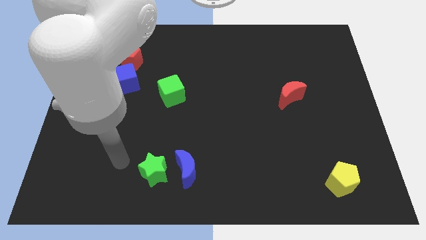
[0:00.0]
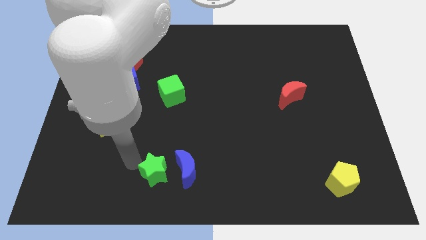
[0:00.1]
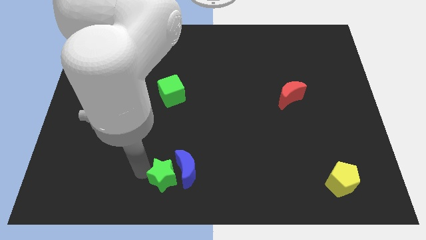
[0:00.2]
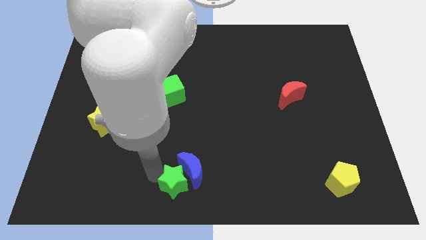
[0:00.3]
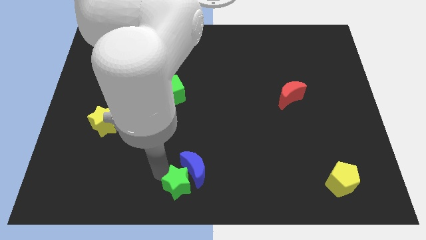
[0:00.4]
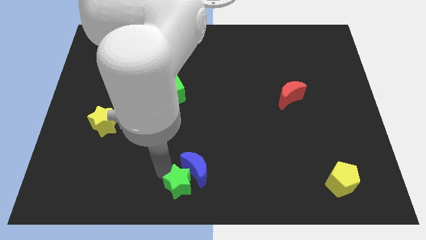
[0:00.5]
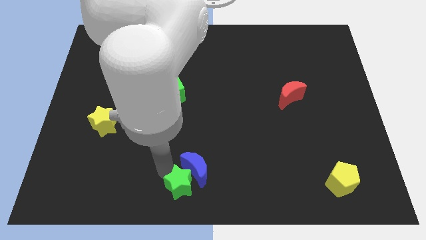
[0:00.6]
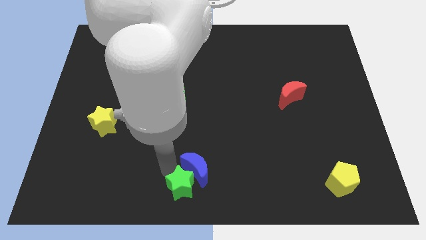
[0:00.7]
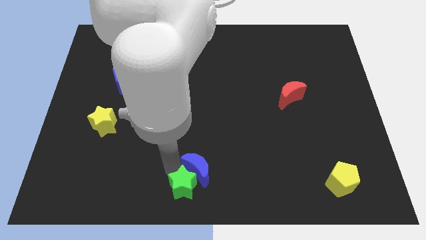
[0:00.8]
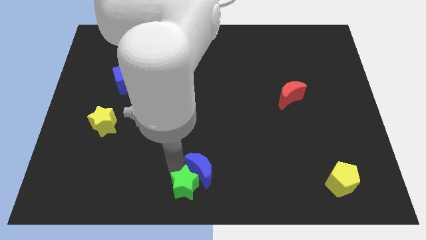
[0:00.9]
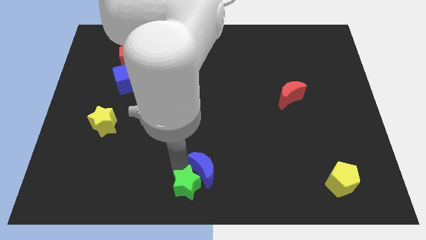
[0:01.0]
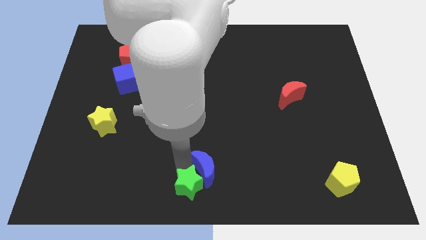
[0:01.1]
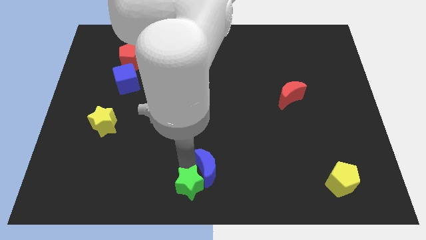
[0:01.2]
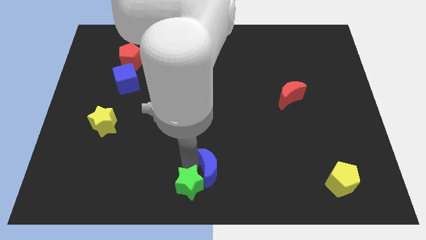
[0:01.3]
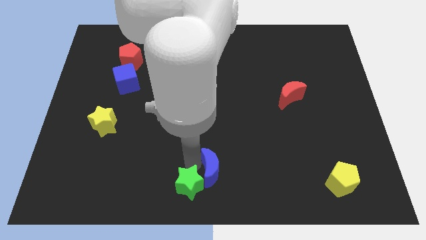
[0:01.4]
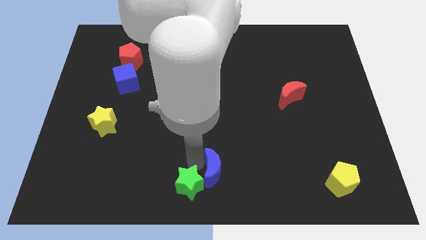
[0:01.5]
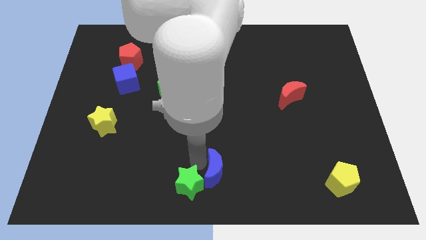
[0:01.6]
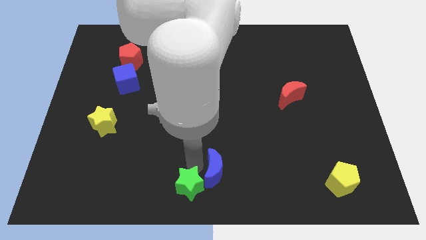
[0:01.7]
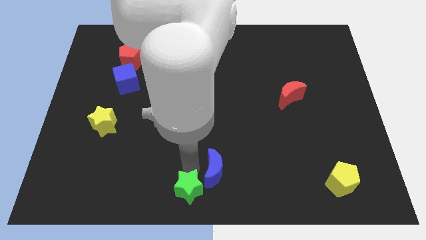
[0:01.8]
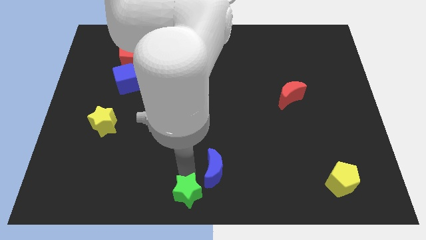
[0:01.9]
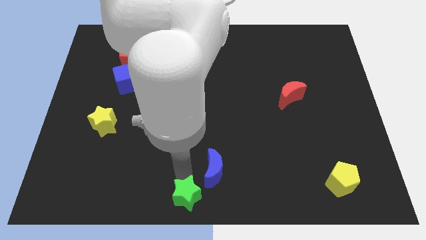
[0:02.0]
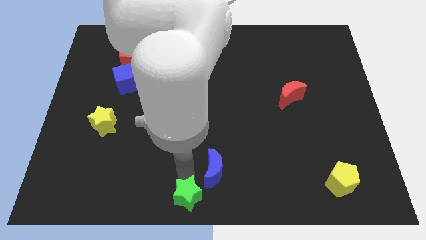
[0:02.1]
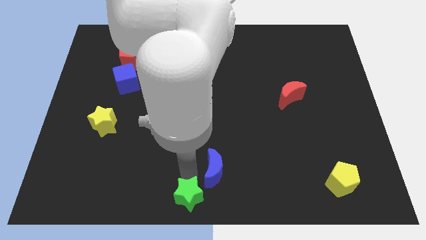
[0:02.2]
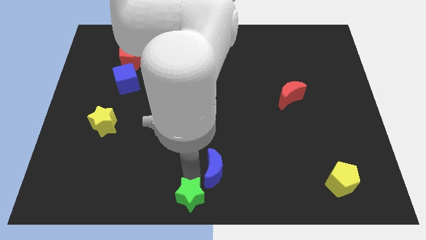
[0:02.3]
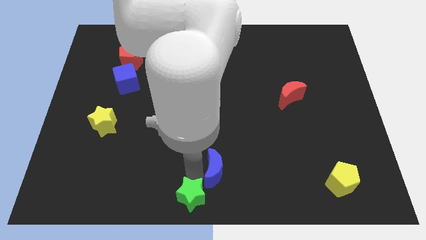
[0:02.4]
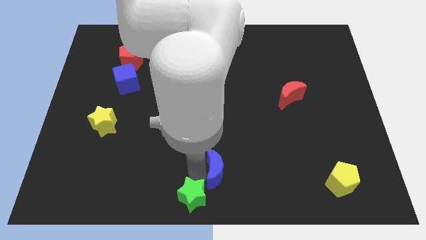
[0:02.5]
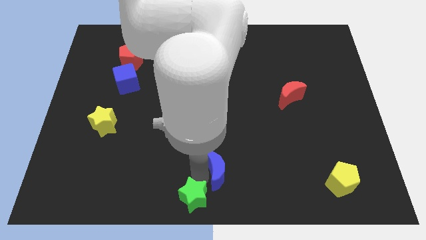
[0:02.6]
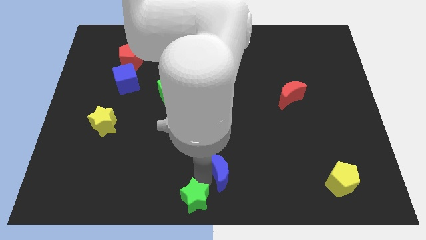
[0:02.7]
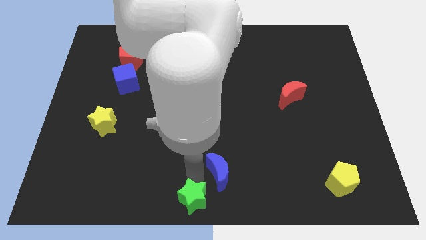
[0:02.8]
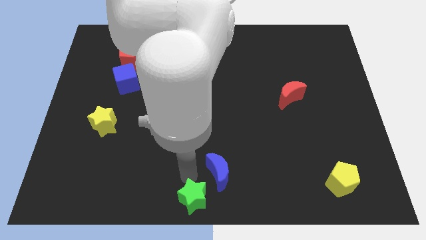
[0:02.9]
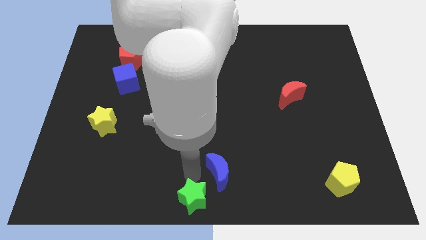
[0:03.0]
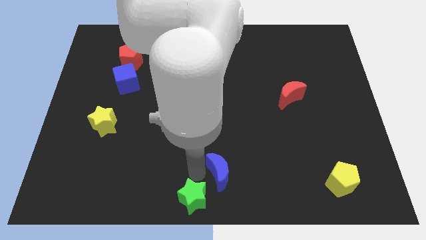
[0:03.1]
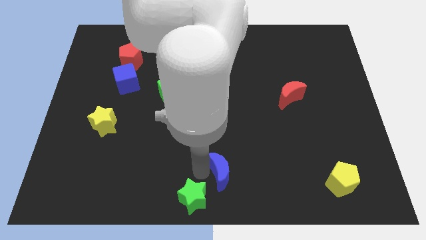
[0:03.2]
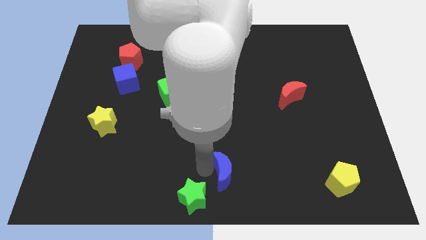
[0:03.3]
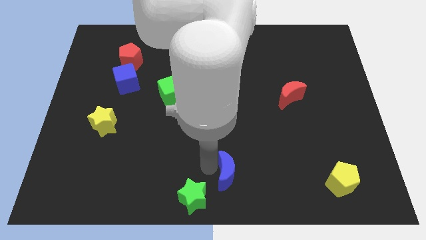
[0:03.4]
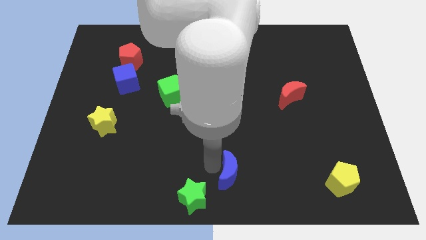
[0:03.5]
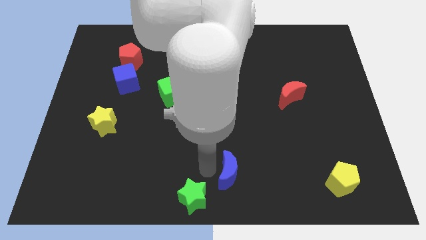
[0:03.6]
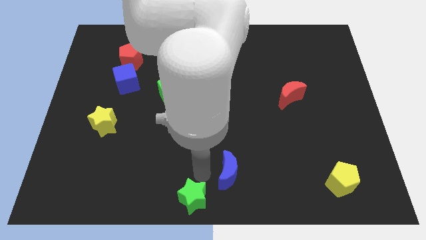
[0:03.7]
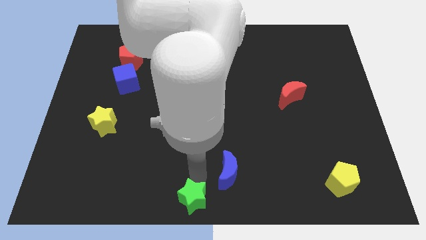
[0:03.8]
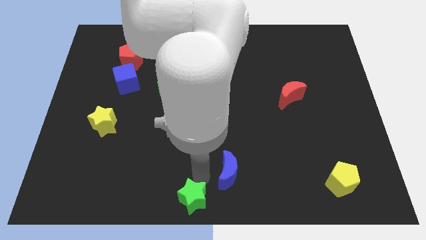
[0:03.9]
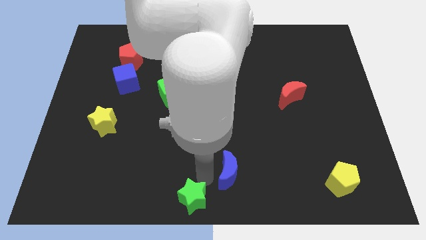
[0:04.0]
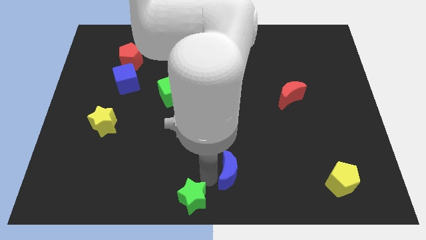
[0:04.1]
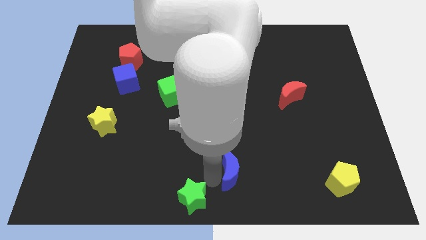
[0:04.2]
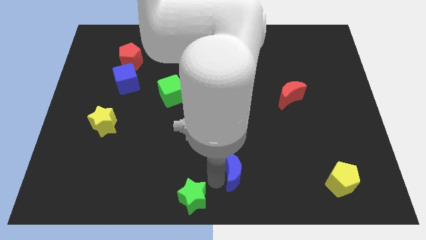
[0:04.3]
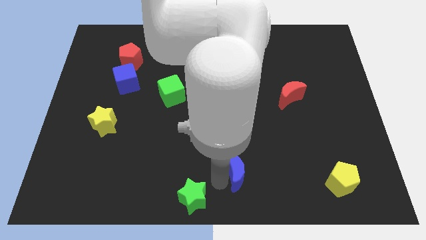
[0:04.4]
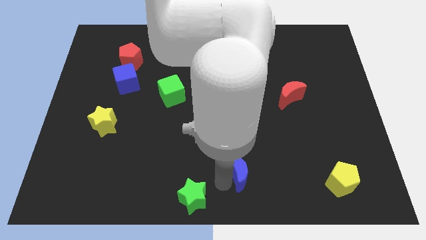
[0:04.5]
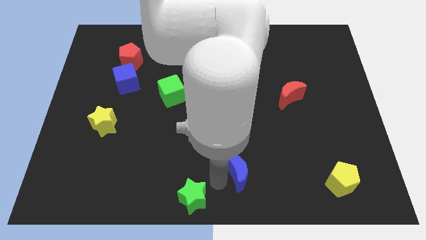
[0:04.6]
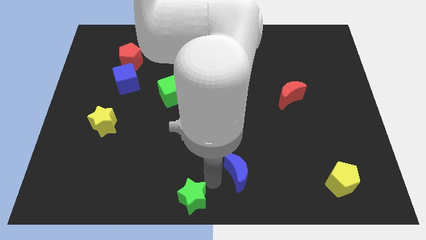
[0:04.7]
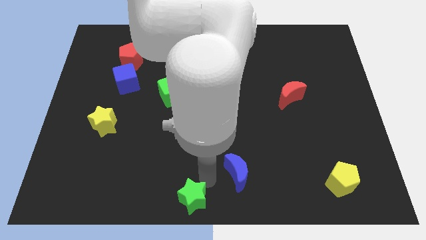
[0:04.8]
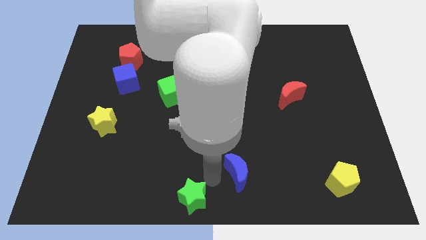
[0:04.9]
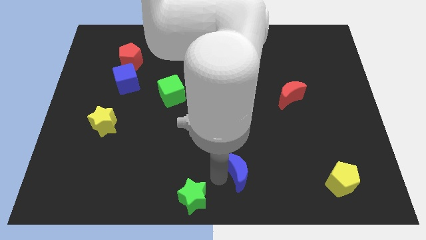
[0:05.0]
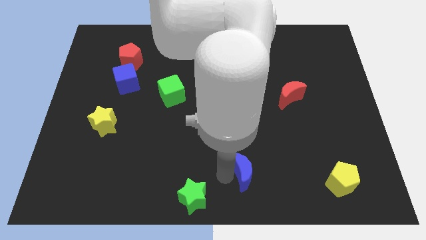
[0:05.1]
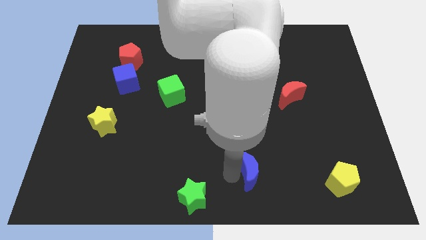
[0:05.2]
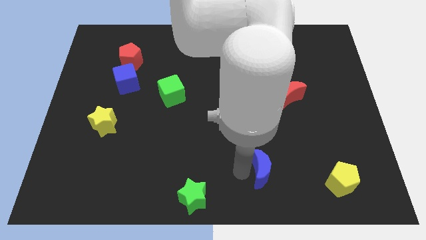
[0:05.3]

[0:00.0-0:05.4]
put the blue moon to the left side of the yellow pentagon

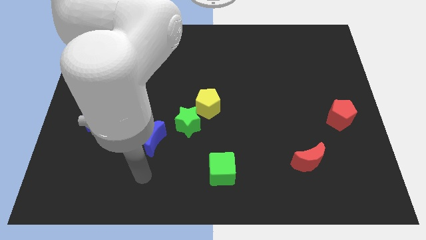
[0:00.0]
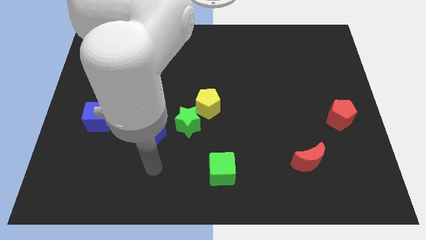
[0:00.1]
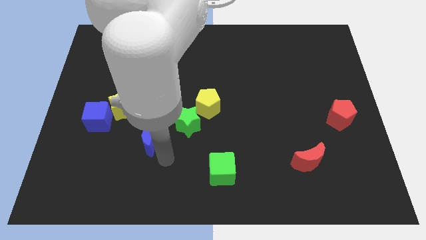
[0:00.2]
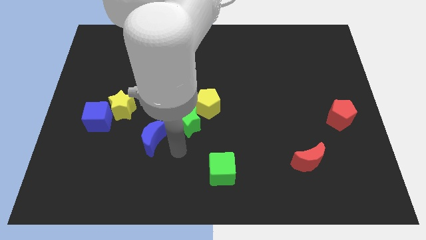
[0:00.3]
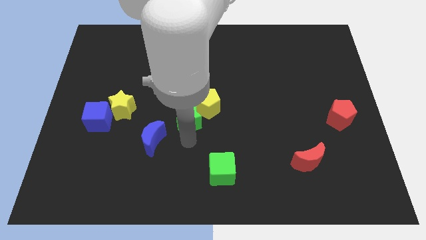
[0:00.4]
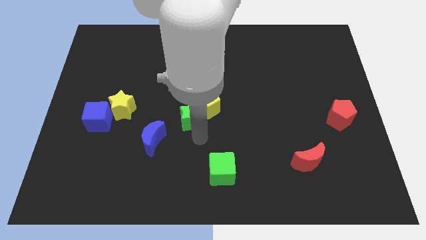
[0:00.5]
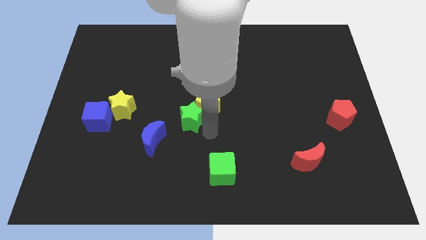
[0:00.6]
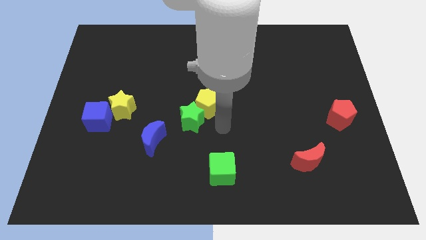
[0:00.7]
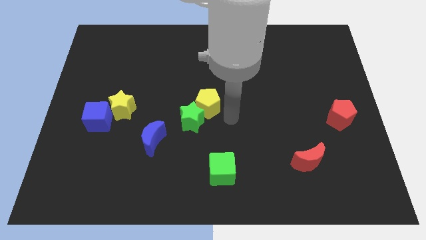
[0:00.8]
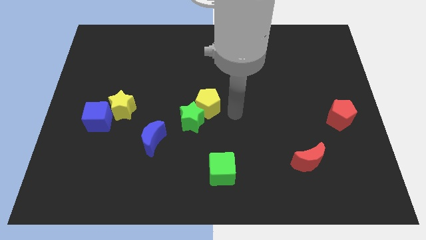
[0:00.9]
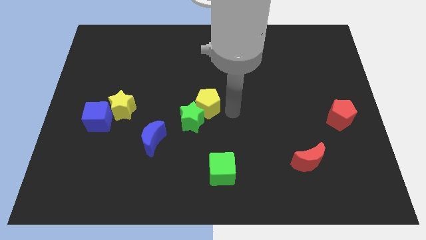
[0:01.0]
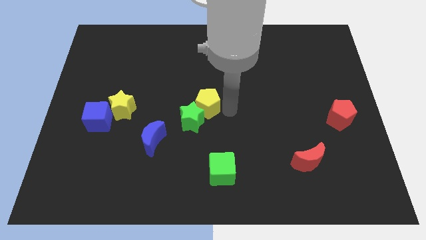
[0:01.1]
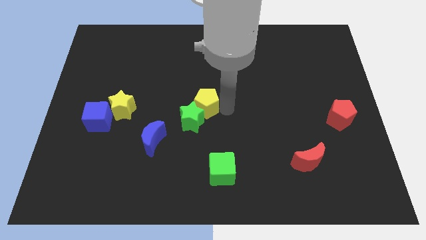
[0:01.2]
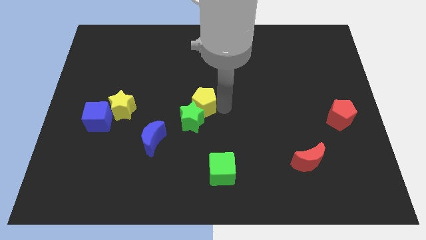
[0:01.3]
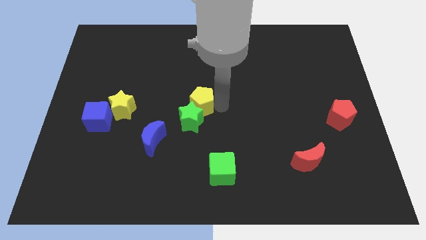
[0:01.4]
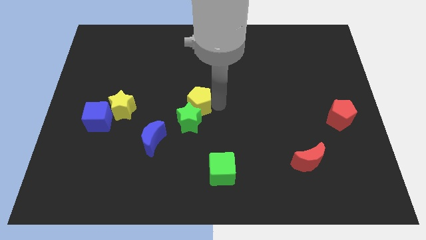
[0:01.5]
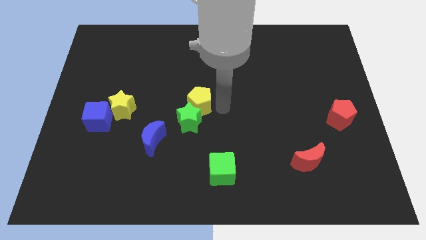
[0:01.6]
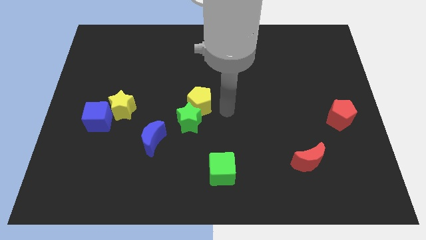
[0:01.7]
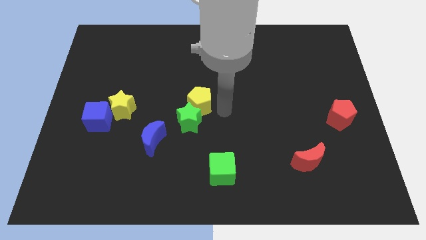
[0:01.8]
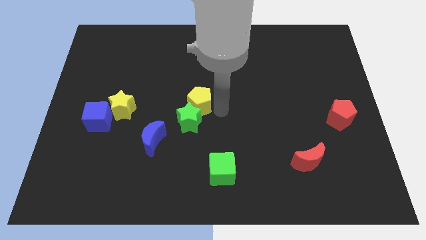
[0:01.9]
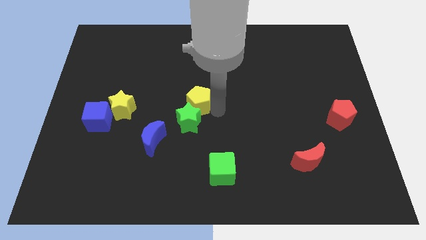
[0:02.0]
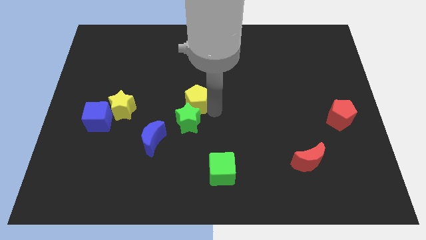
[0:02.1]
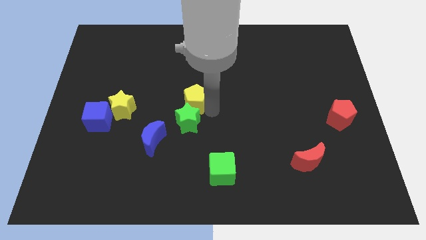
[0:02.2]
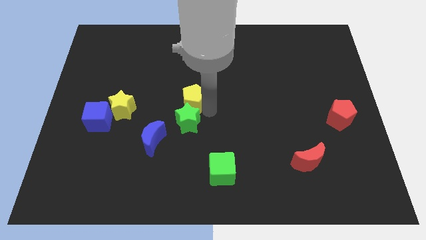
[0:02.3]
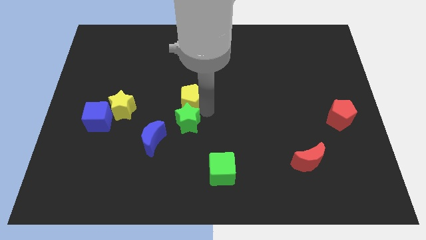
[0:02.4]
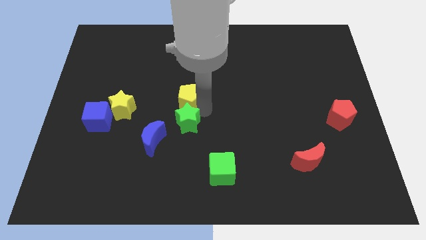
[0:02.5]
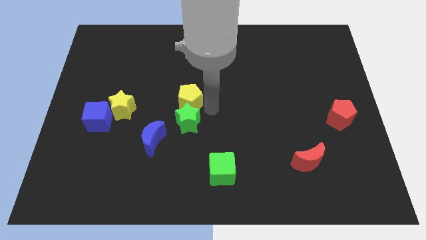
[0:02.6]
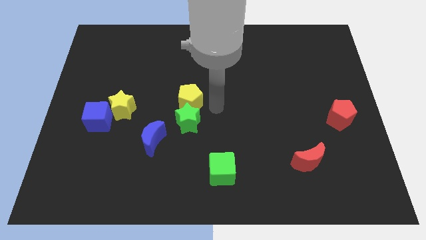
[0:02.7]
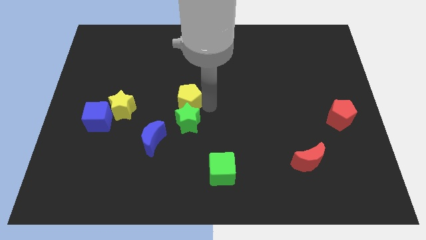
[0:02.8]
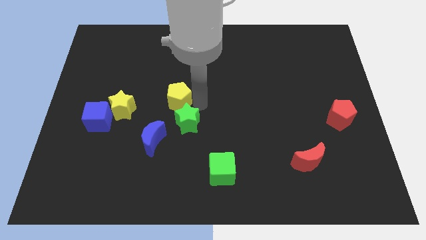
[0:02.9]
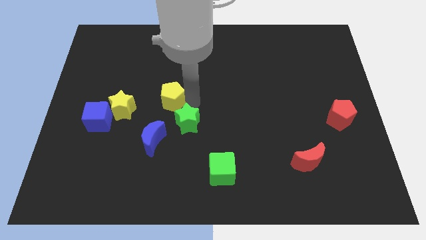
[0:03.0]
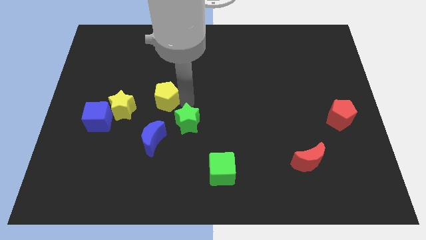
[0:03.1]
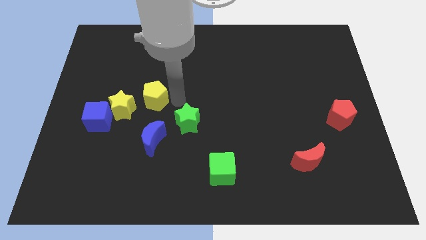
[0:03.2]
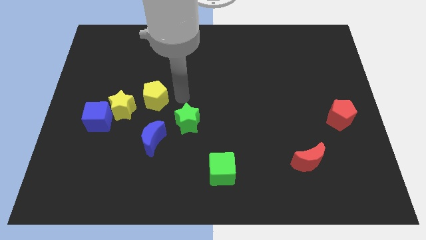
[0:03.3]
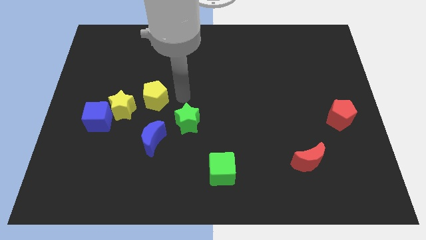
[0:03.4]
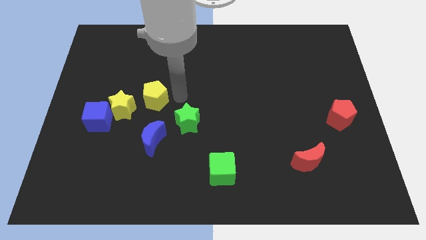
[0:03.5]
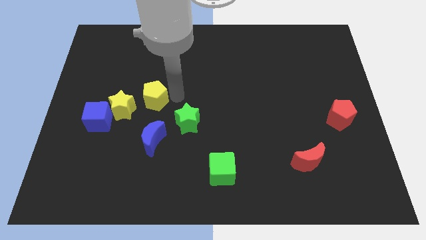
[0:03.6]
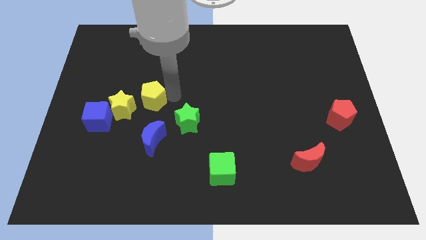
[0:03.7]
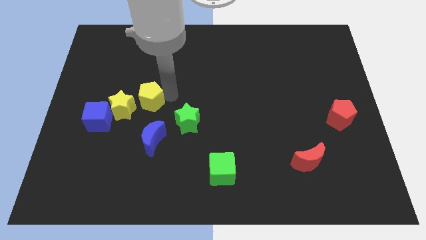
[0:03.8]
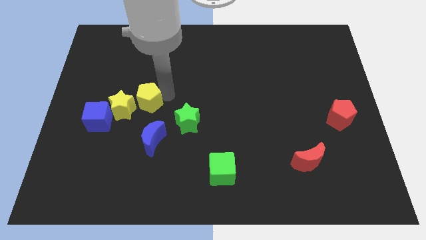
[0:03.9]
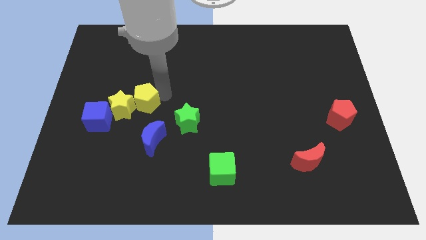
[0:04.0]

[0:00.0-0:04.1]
slide the yellow pentagon diagonally up and to the right of the blue cube
